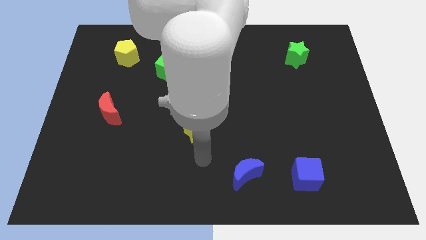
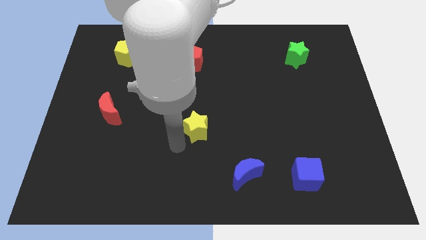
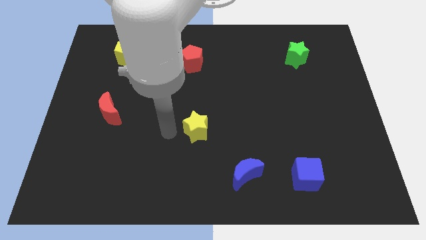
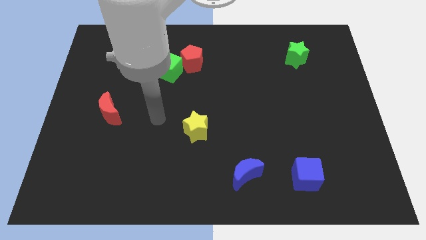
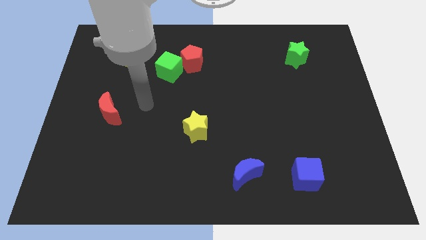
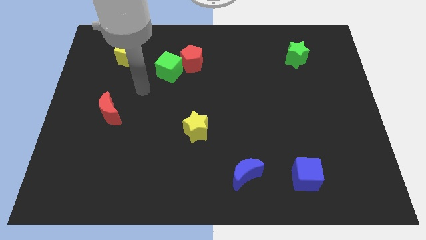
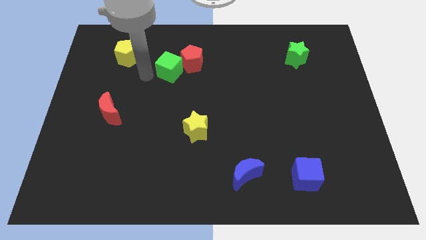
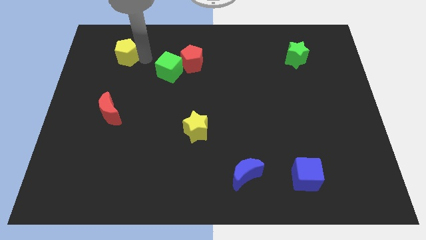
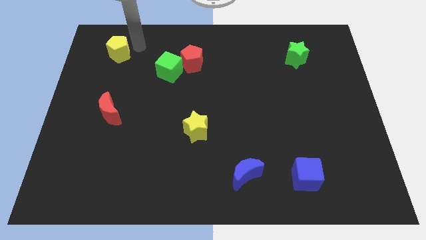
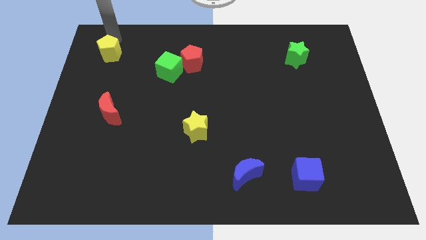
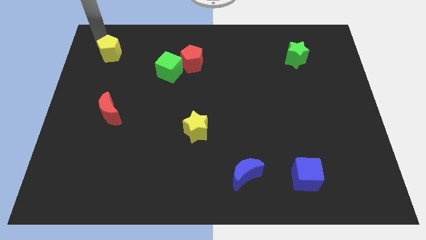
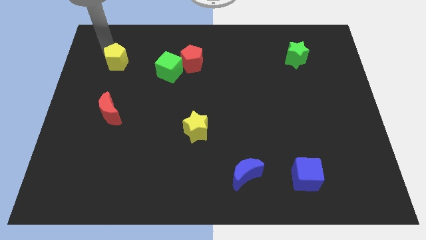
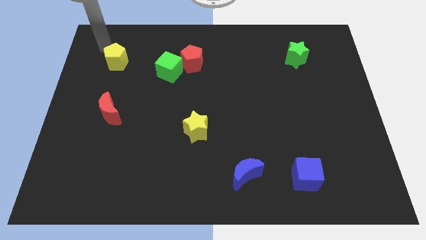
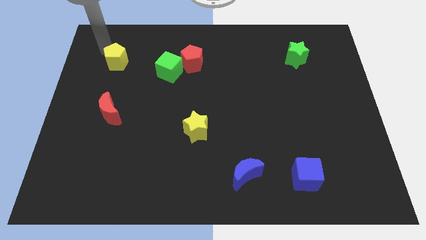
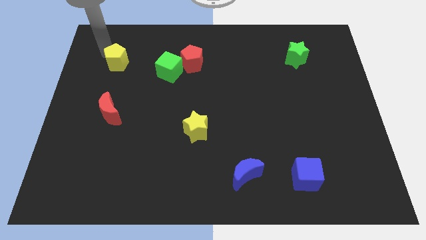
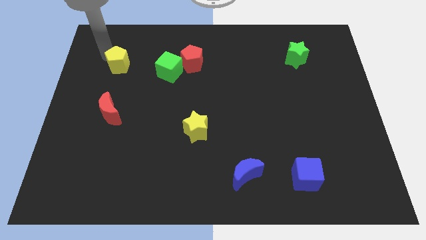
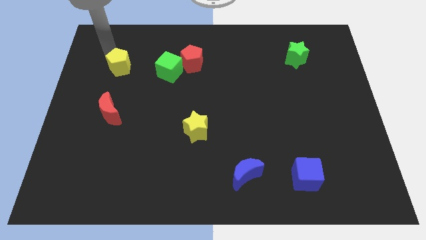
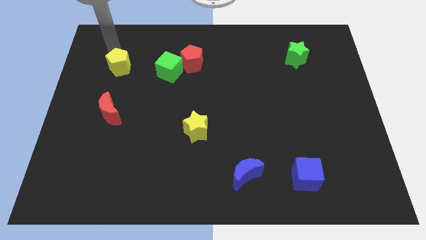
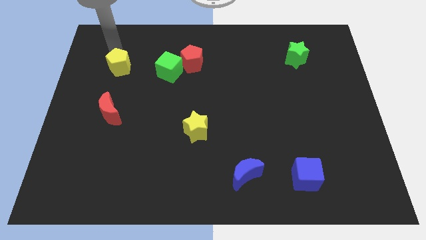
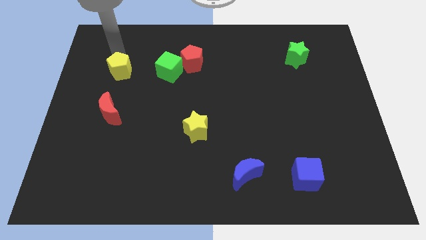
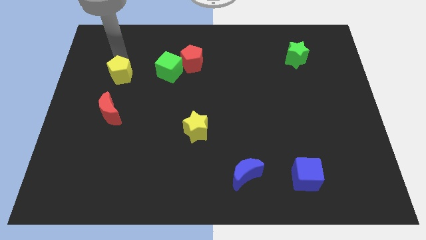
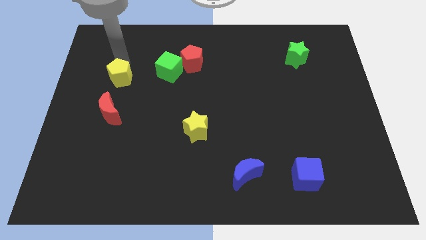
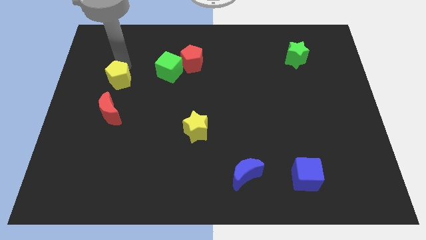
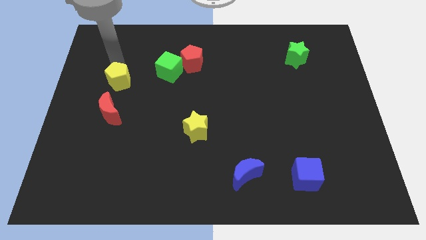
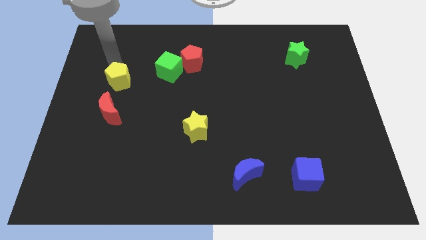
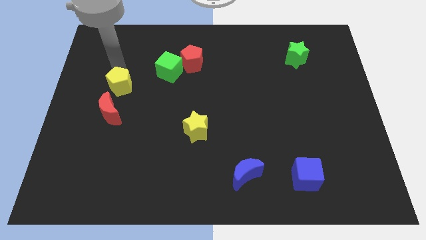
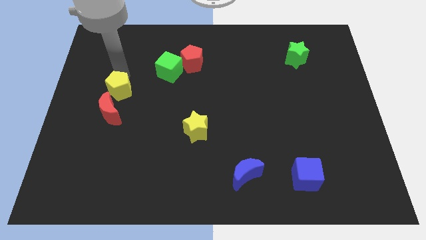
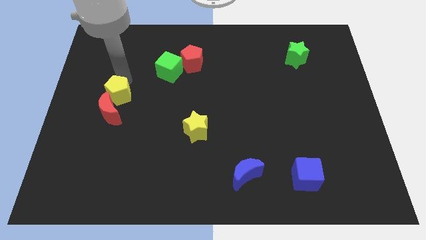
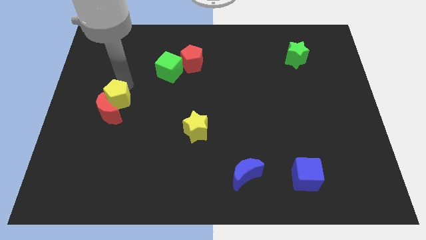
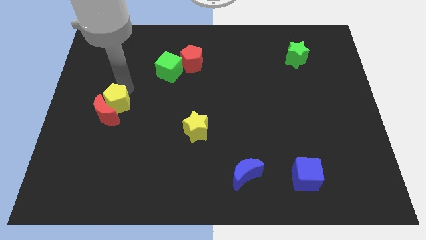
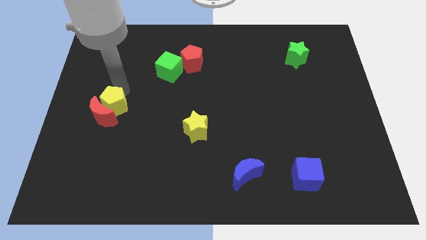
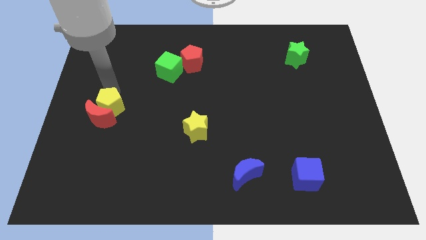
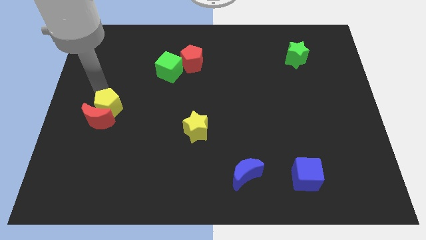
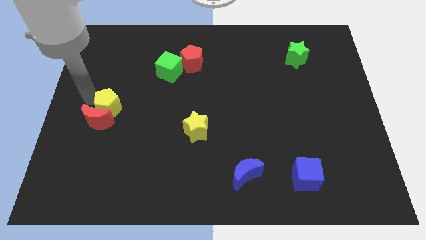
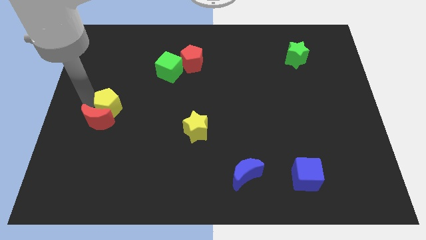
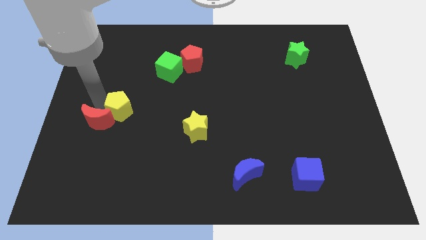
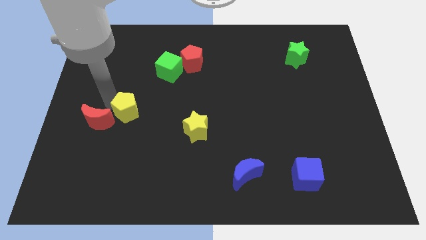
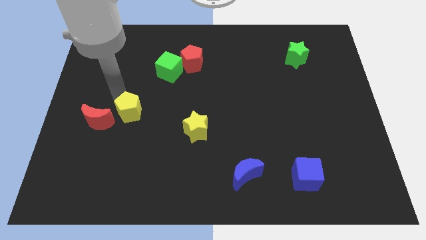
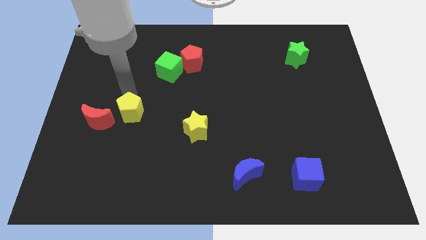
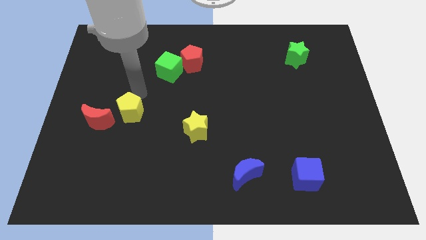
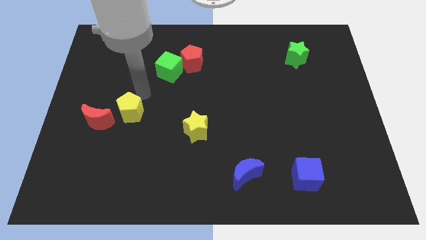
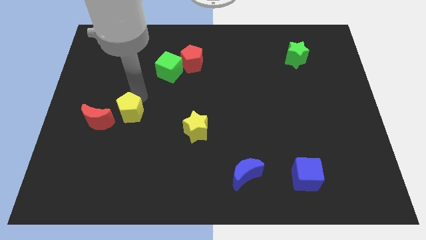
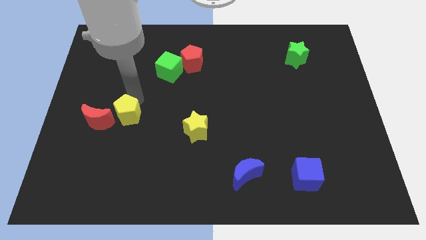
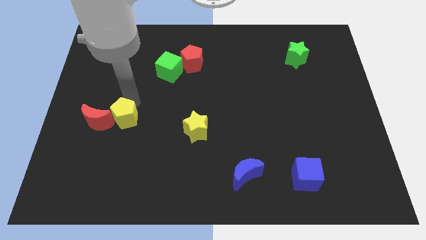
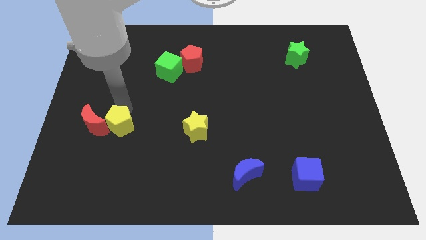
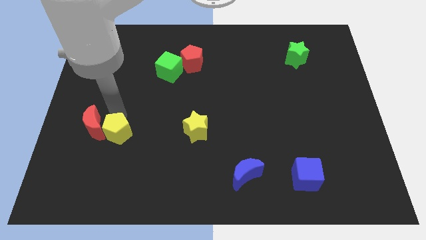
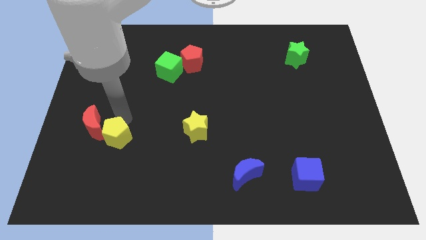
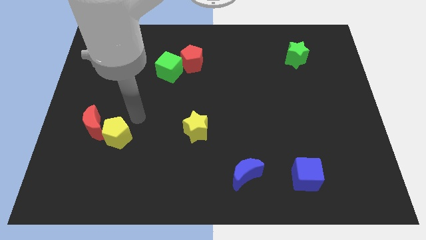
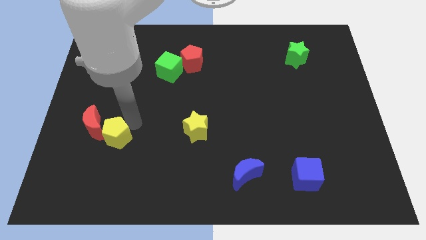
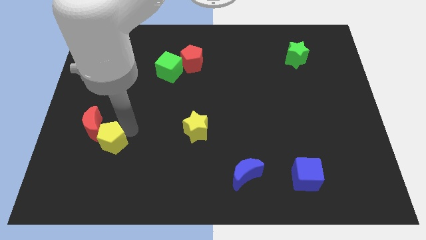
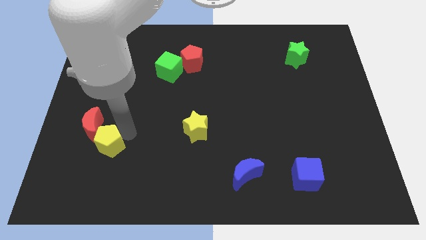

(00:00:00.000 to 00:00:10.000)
push the yellow pentagon to the bottom side of the red moon

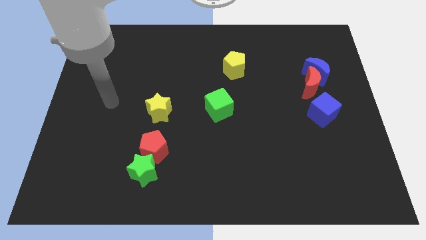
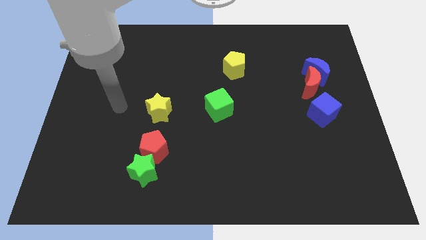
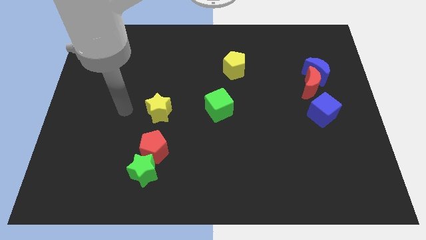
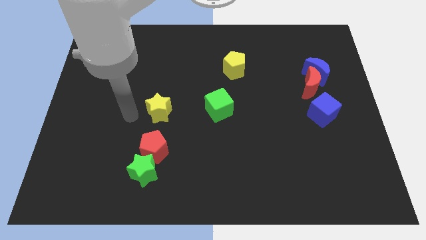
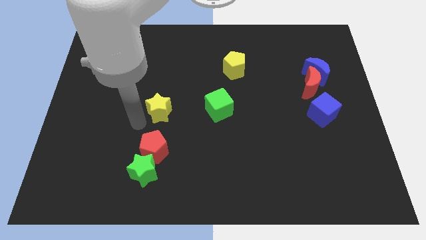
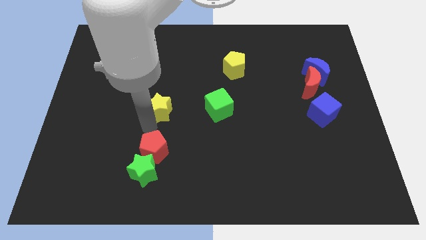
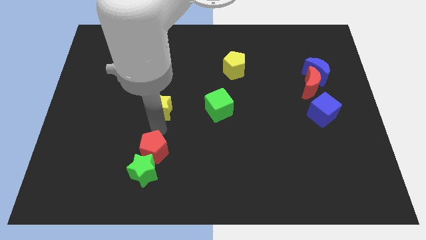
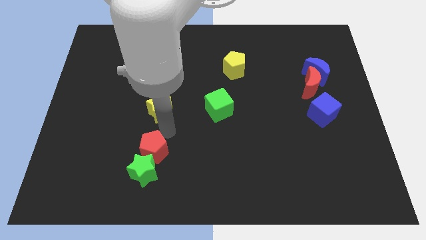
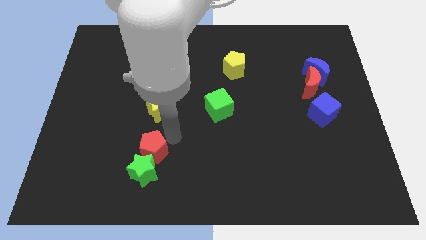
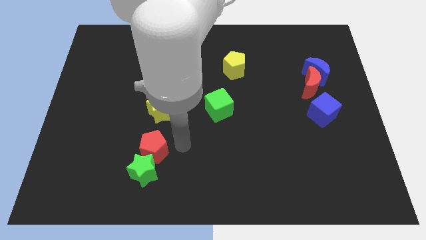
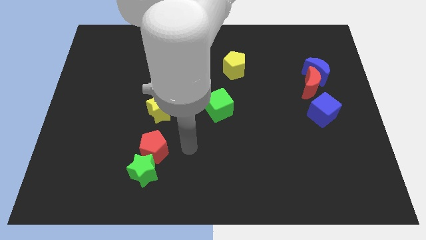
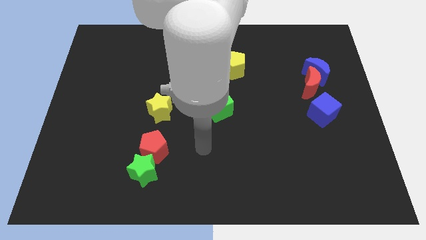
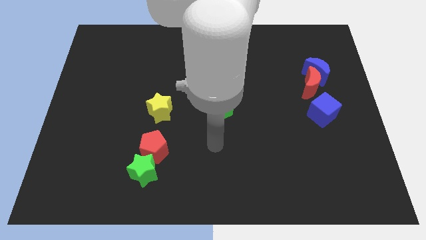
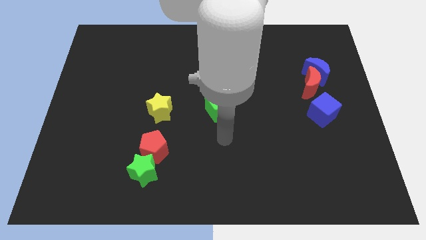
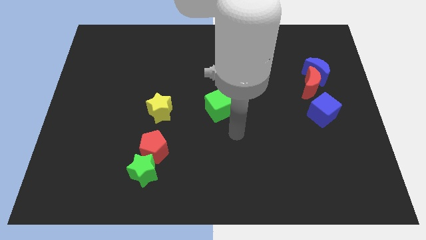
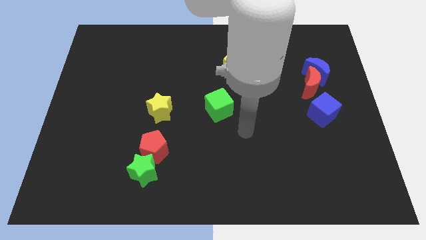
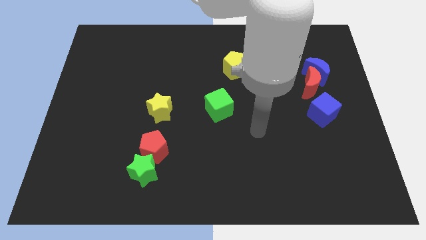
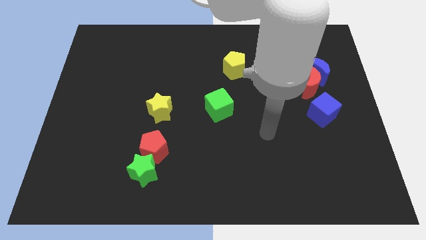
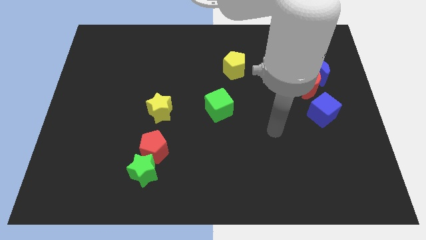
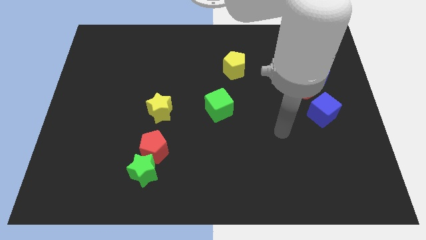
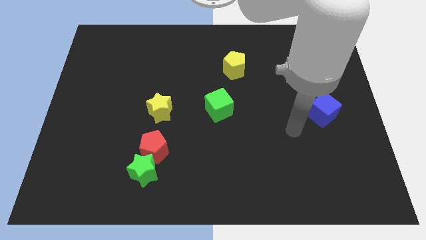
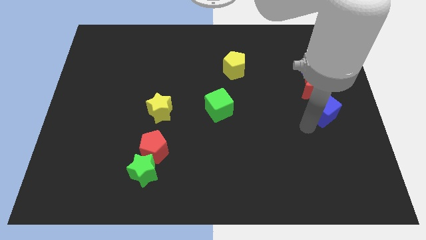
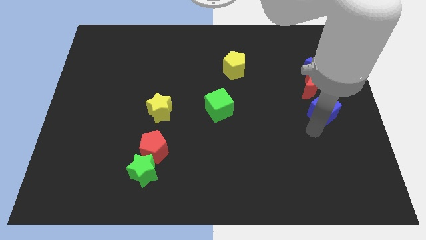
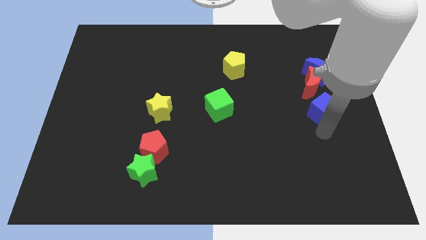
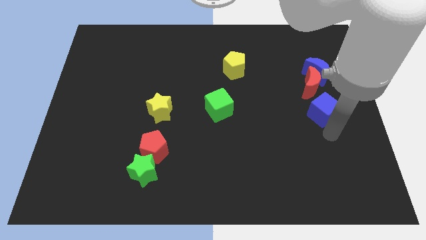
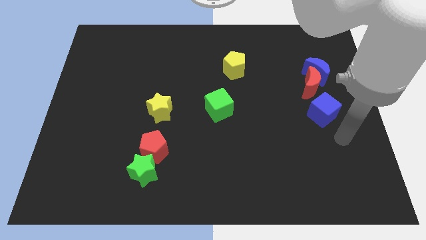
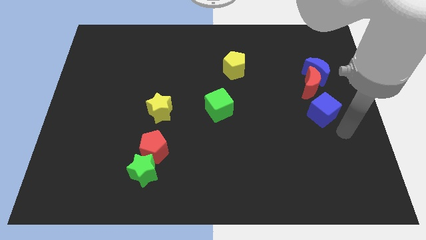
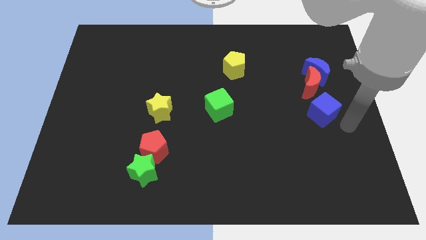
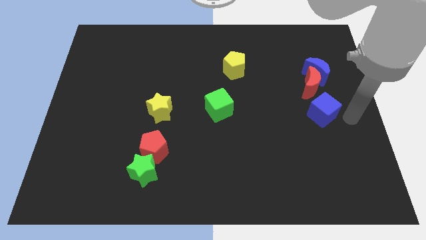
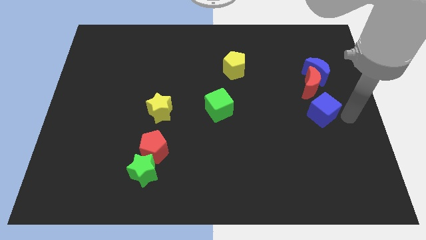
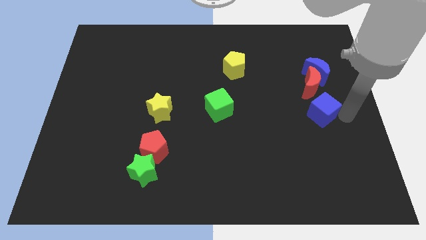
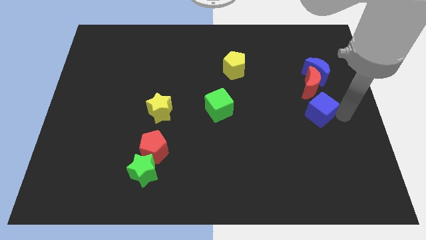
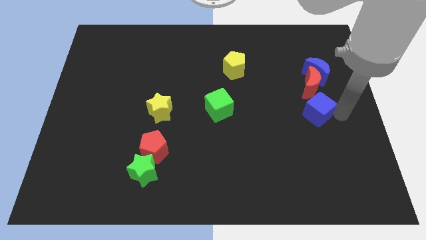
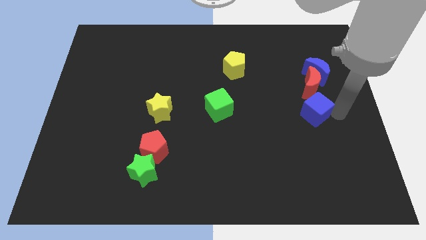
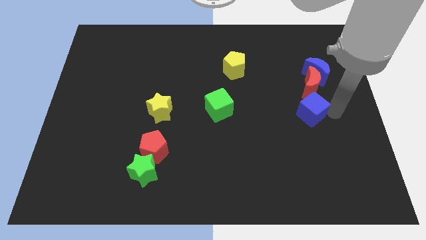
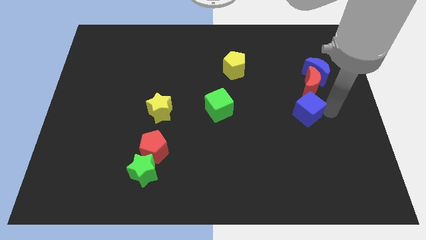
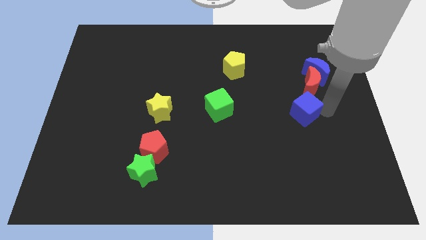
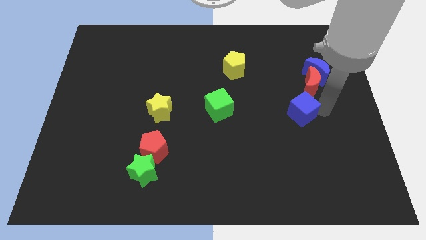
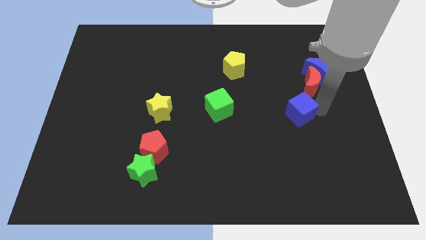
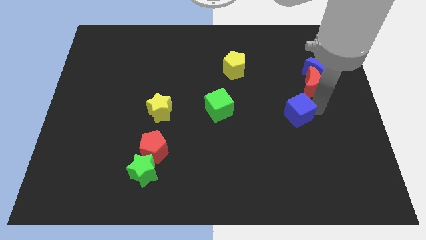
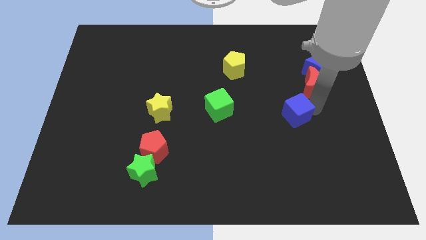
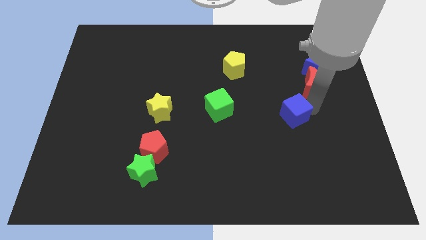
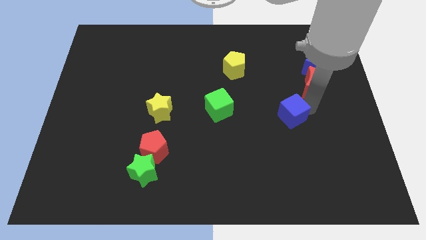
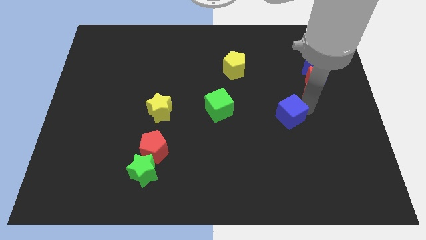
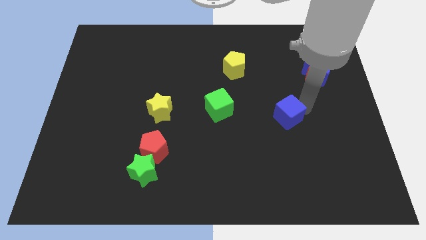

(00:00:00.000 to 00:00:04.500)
put the blue cube right of the green cube
